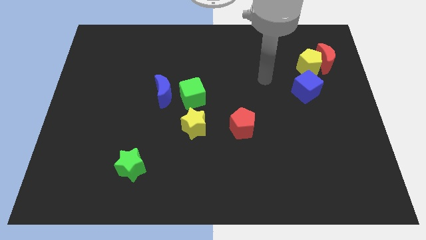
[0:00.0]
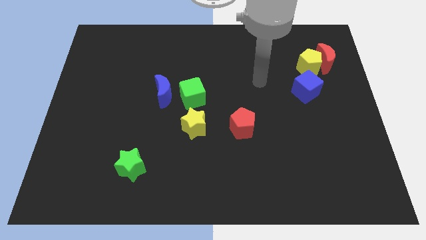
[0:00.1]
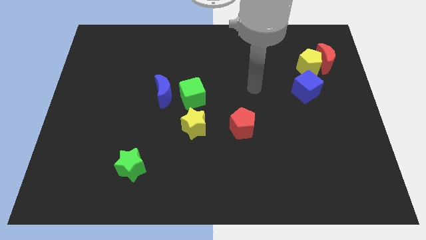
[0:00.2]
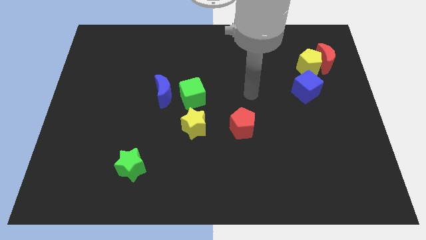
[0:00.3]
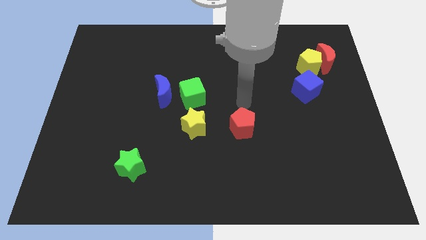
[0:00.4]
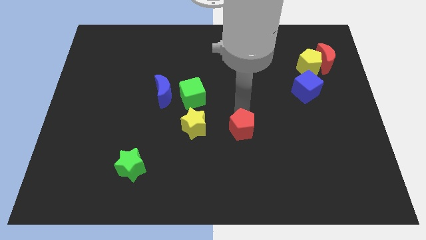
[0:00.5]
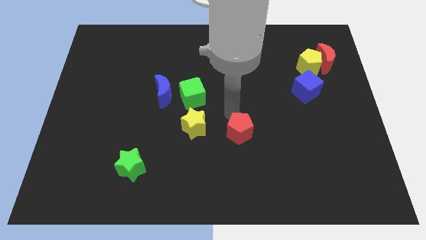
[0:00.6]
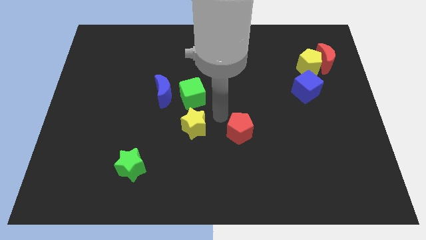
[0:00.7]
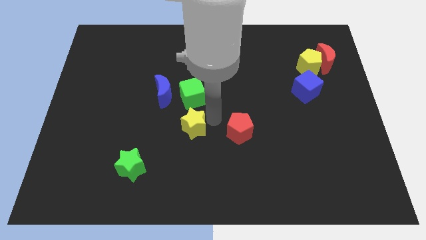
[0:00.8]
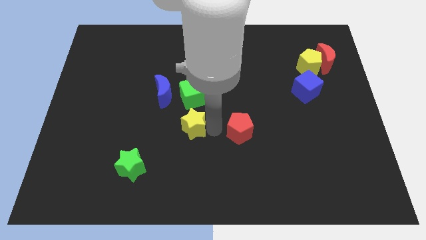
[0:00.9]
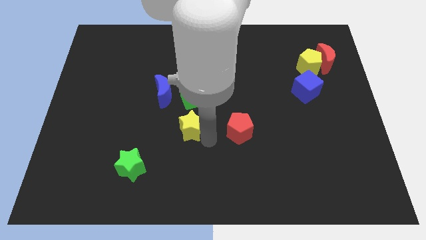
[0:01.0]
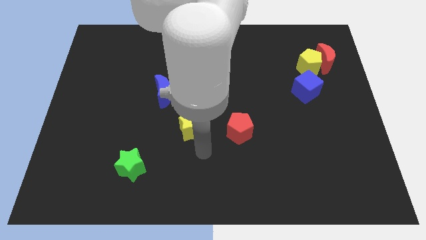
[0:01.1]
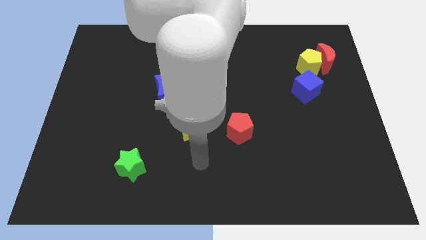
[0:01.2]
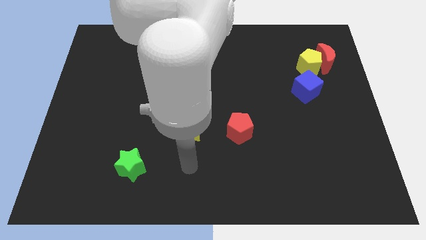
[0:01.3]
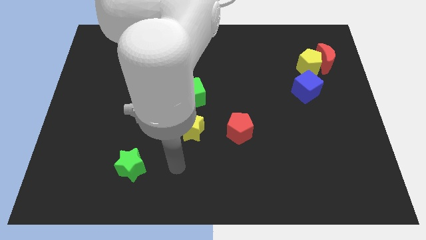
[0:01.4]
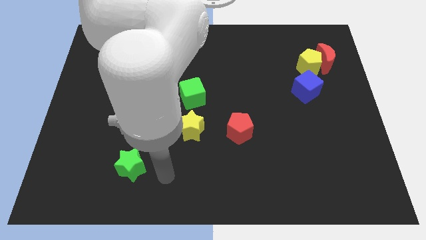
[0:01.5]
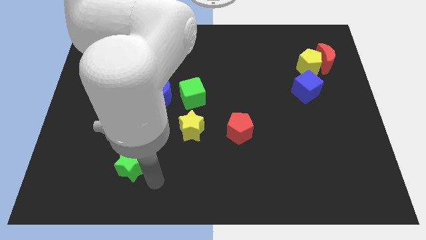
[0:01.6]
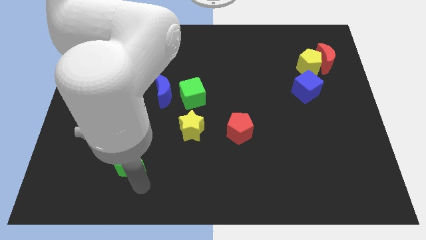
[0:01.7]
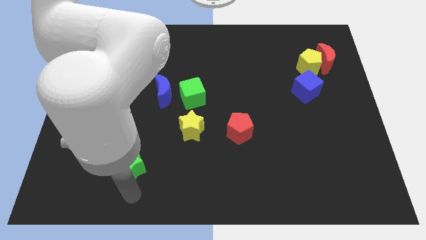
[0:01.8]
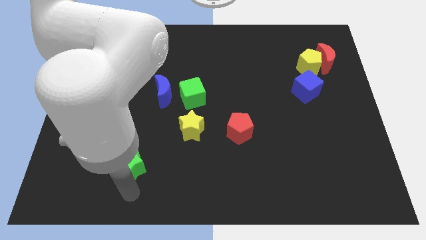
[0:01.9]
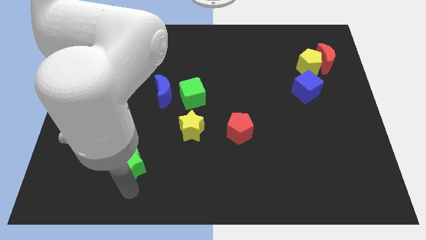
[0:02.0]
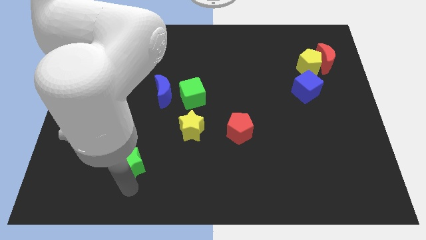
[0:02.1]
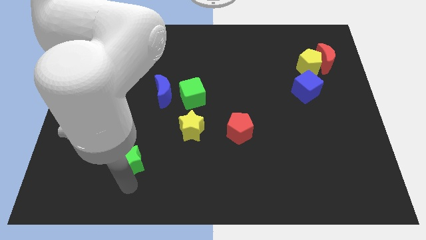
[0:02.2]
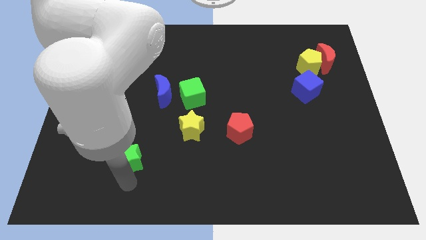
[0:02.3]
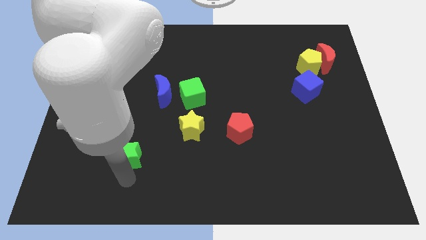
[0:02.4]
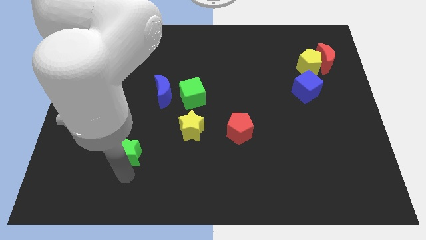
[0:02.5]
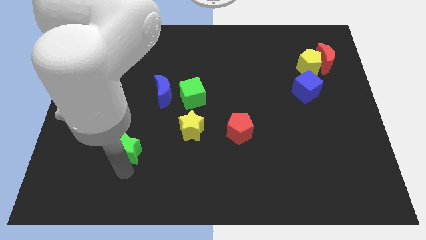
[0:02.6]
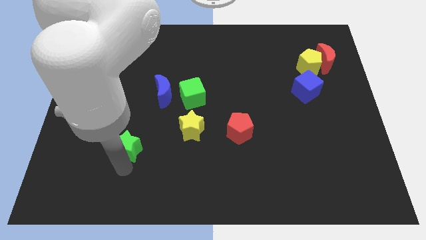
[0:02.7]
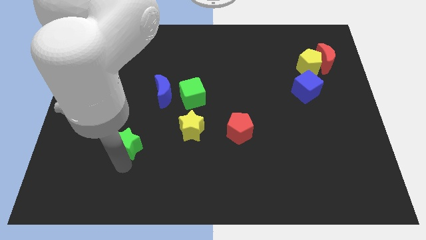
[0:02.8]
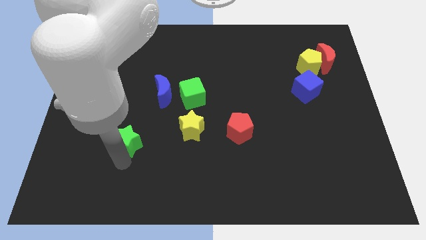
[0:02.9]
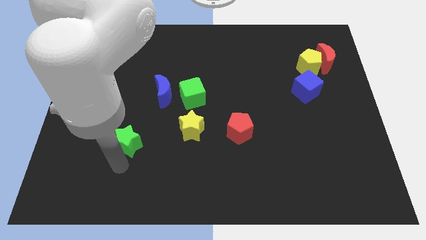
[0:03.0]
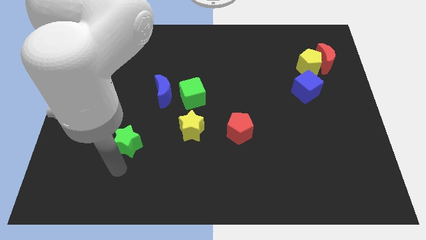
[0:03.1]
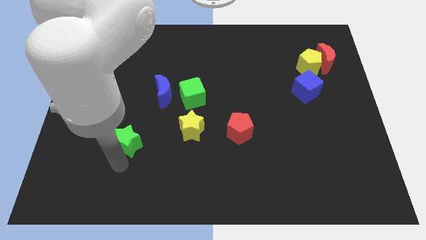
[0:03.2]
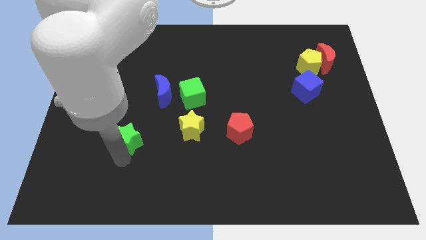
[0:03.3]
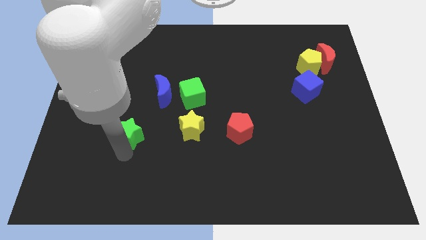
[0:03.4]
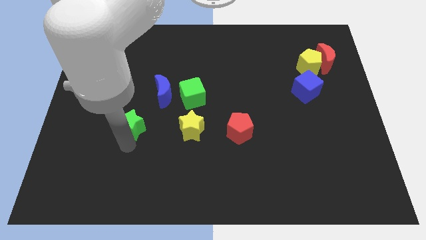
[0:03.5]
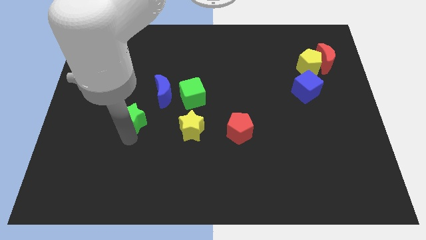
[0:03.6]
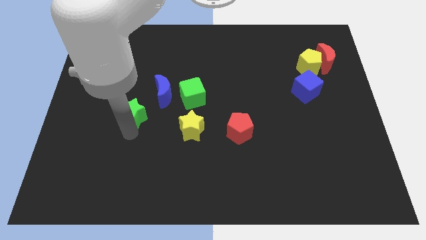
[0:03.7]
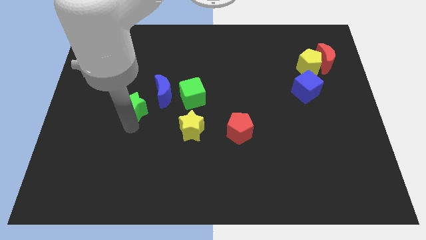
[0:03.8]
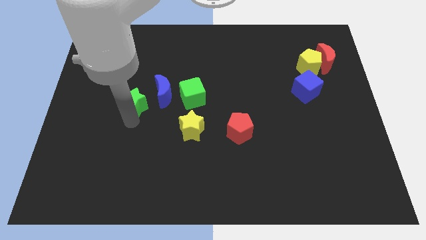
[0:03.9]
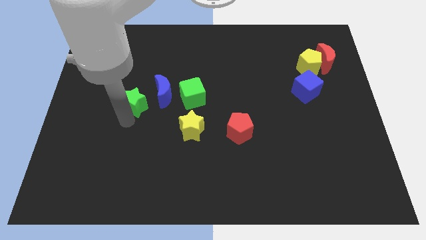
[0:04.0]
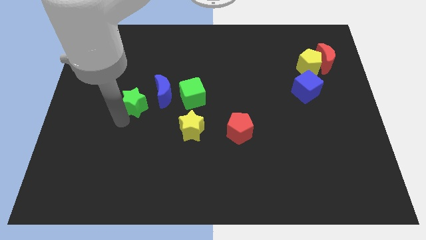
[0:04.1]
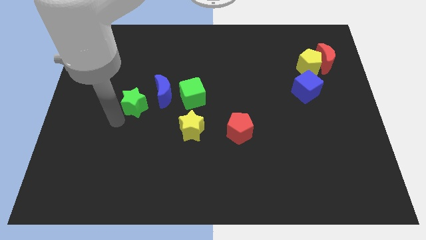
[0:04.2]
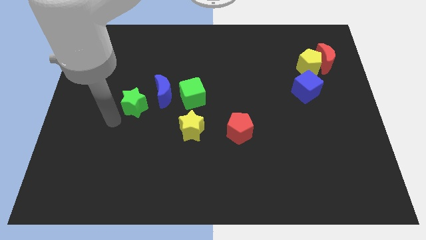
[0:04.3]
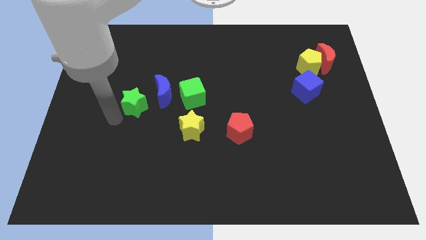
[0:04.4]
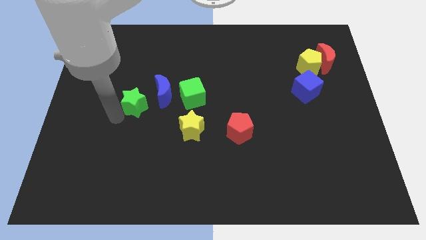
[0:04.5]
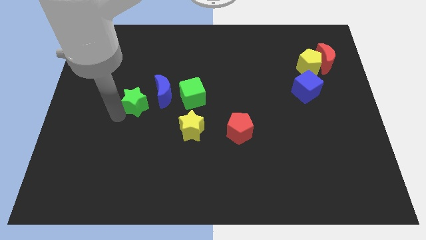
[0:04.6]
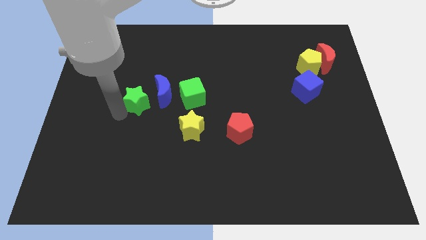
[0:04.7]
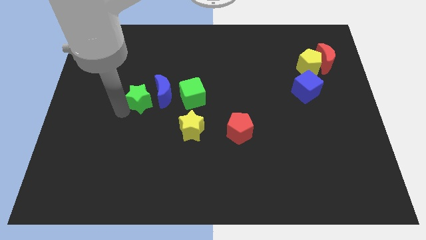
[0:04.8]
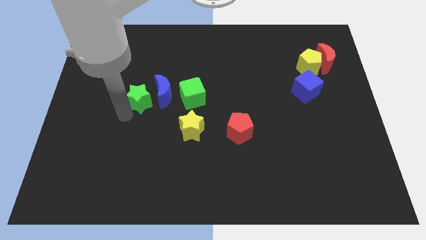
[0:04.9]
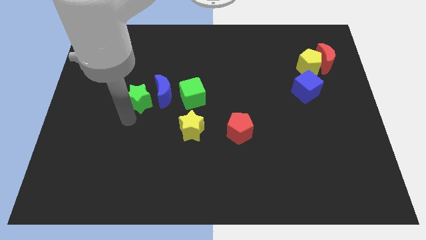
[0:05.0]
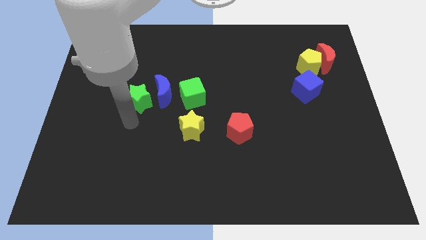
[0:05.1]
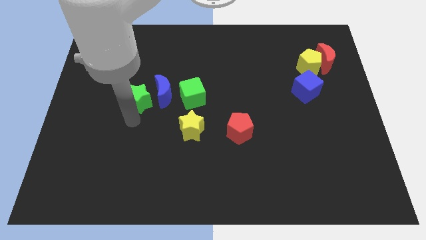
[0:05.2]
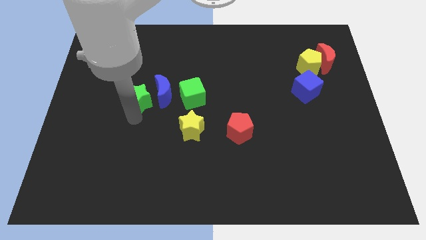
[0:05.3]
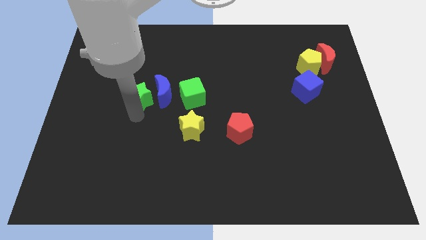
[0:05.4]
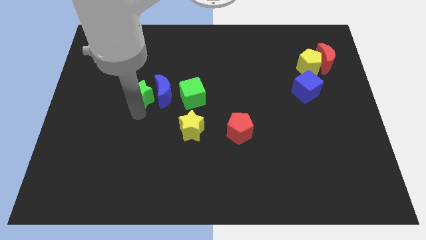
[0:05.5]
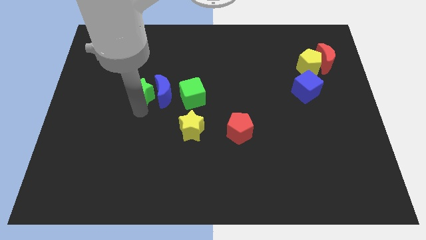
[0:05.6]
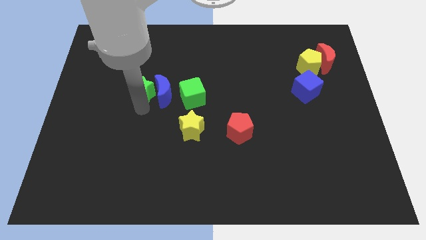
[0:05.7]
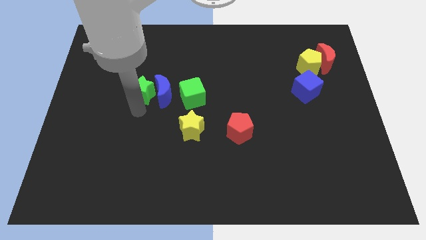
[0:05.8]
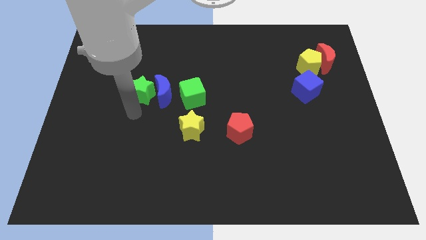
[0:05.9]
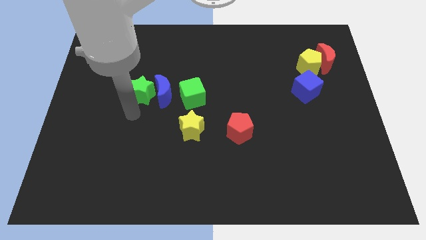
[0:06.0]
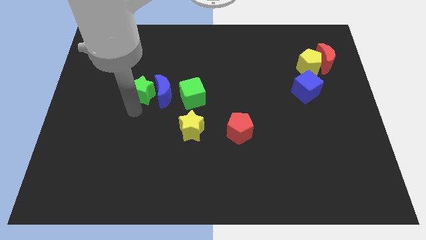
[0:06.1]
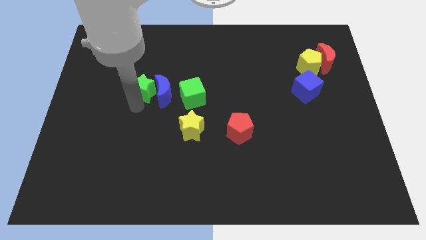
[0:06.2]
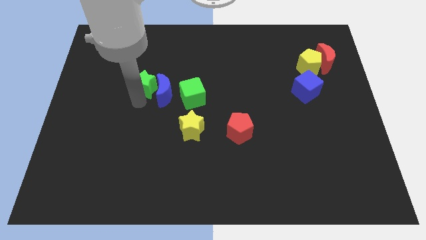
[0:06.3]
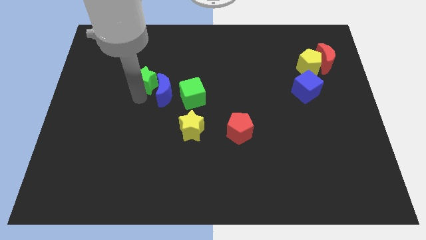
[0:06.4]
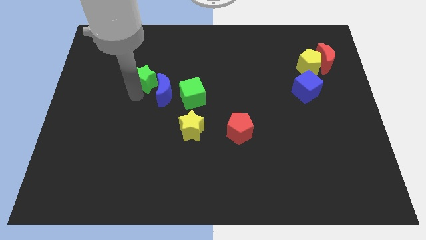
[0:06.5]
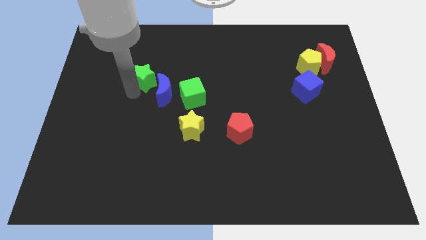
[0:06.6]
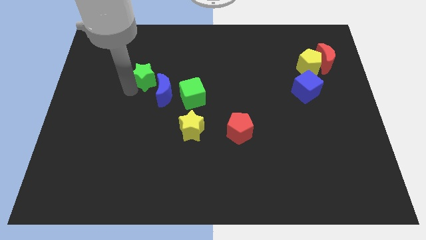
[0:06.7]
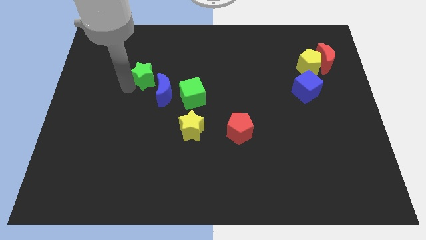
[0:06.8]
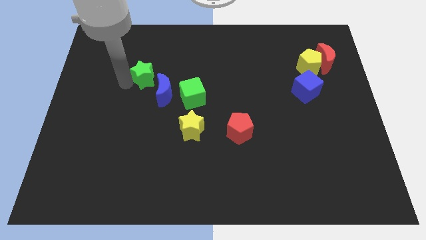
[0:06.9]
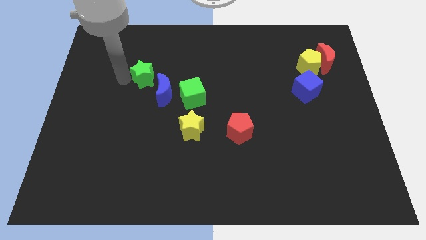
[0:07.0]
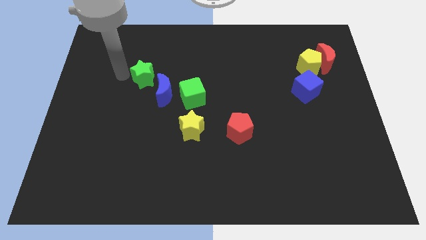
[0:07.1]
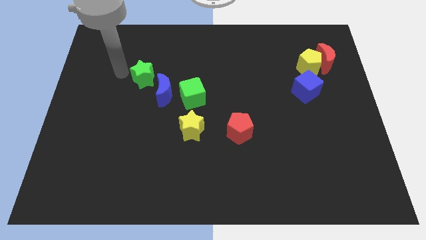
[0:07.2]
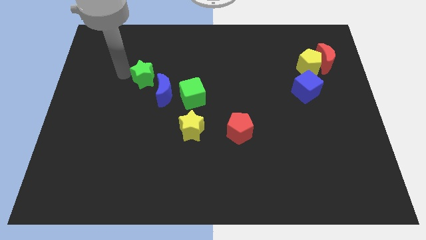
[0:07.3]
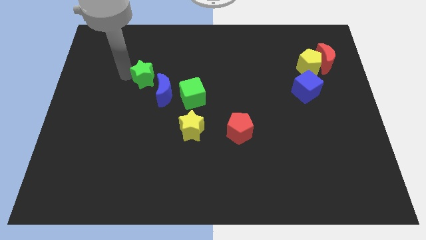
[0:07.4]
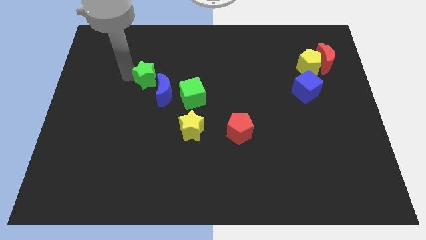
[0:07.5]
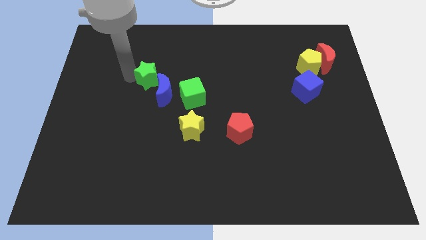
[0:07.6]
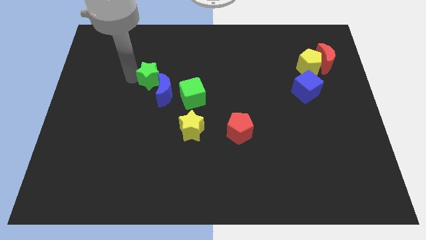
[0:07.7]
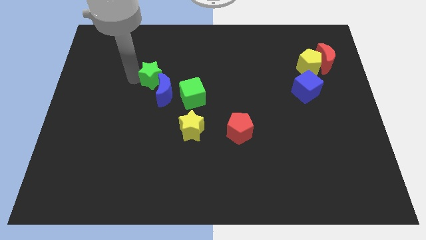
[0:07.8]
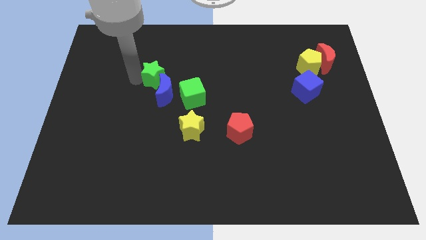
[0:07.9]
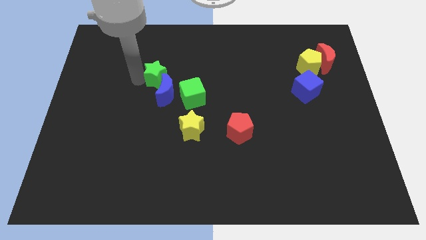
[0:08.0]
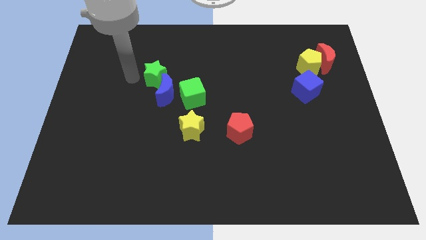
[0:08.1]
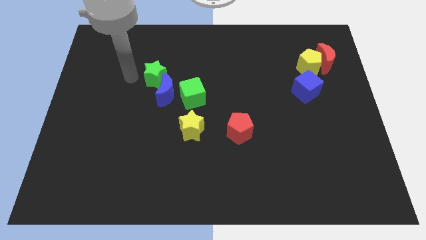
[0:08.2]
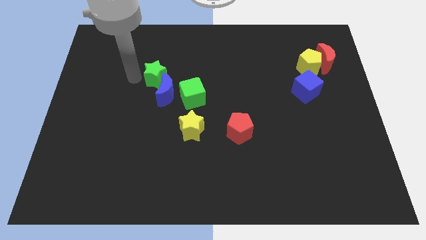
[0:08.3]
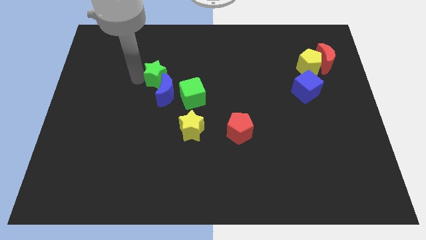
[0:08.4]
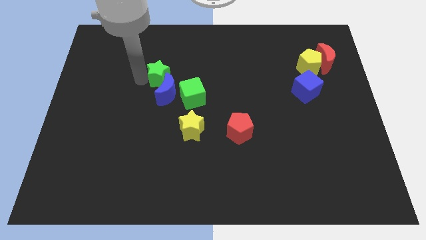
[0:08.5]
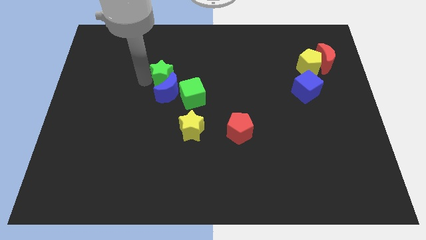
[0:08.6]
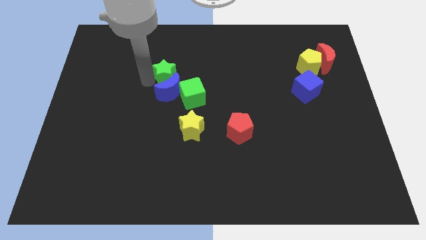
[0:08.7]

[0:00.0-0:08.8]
move the green star to the top right side of the blue moon
